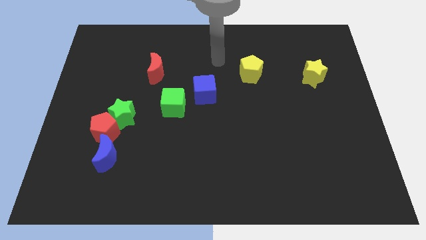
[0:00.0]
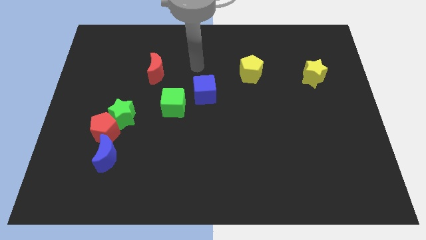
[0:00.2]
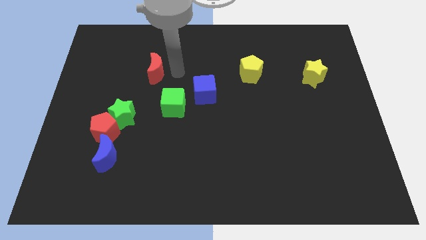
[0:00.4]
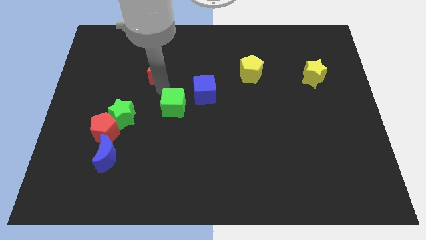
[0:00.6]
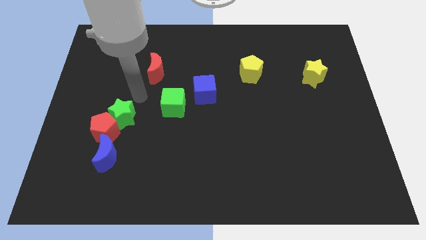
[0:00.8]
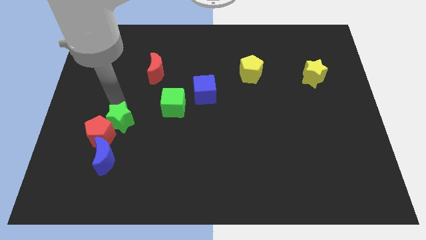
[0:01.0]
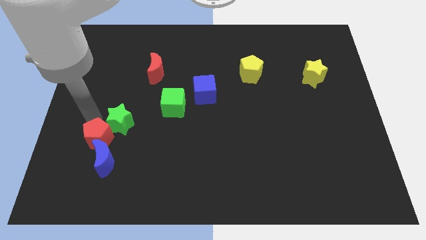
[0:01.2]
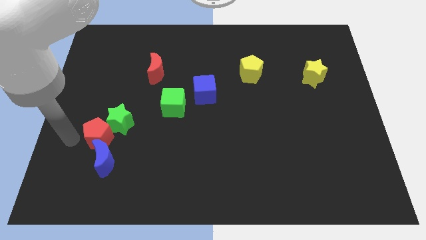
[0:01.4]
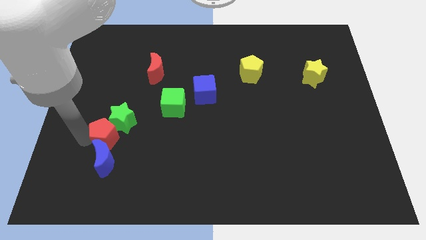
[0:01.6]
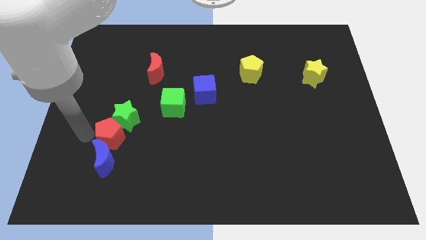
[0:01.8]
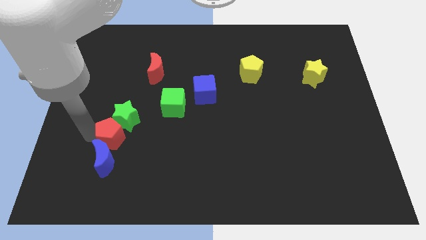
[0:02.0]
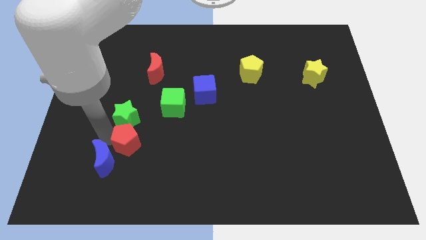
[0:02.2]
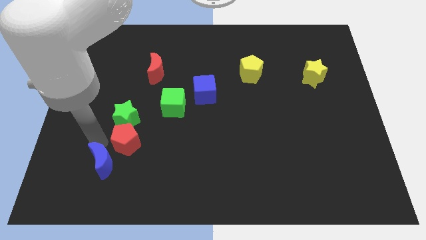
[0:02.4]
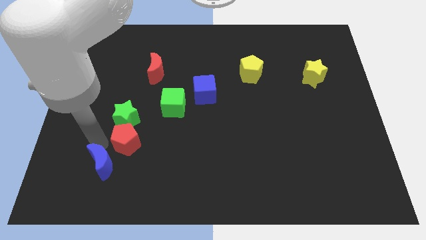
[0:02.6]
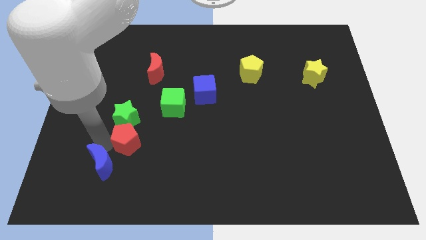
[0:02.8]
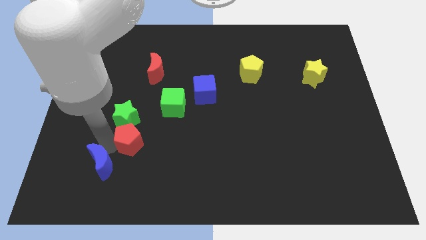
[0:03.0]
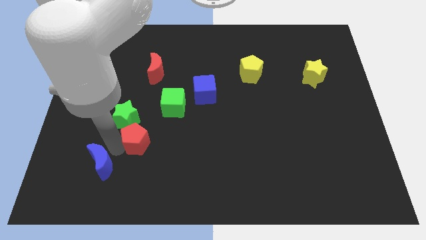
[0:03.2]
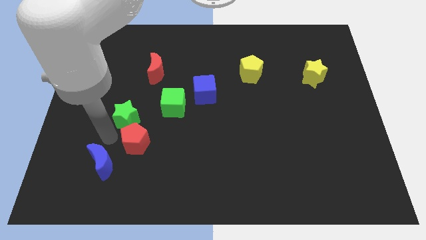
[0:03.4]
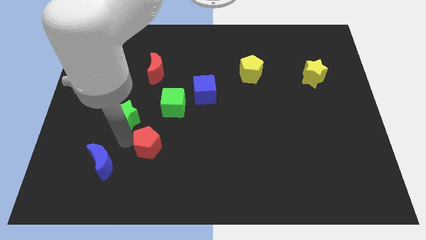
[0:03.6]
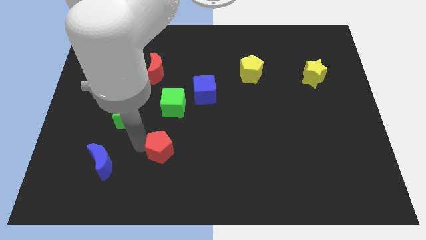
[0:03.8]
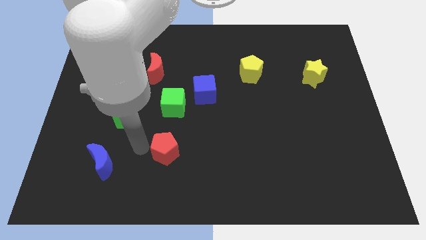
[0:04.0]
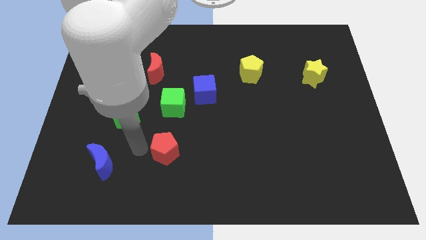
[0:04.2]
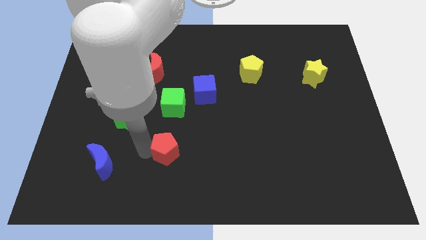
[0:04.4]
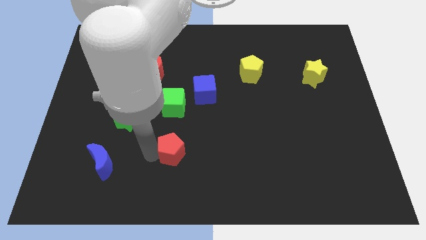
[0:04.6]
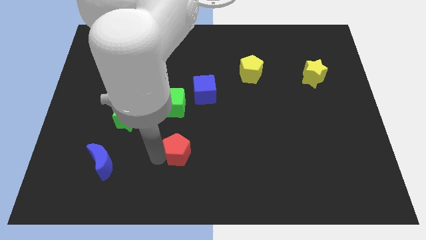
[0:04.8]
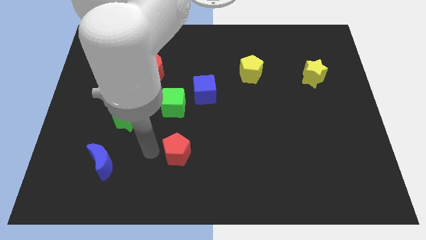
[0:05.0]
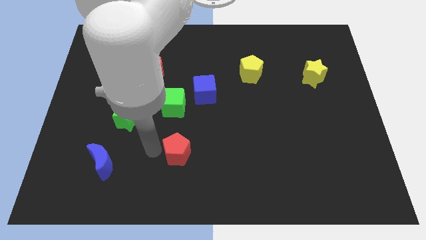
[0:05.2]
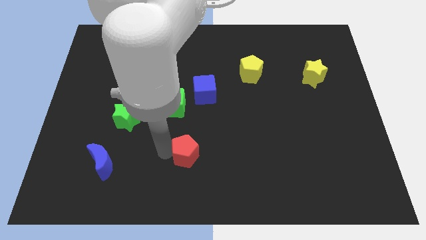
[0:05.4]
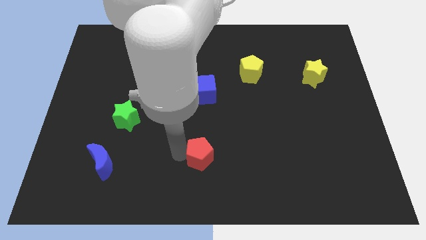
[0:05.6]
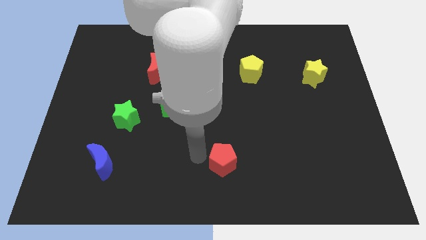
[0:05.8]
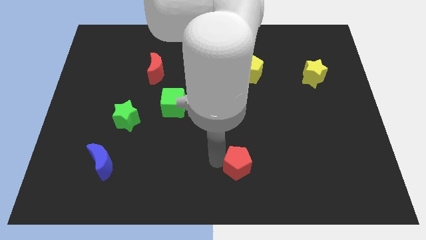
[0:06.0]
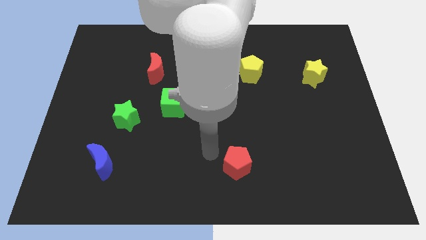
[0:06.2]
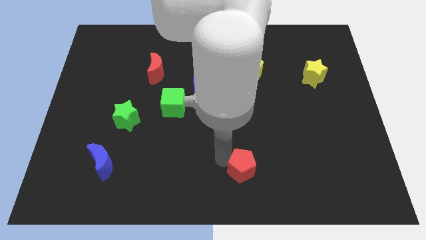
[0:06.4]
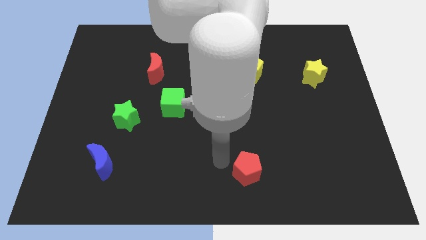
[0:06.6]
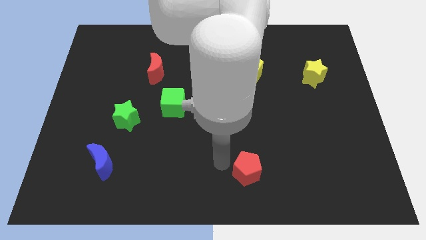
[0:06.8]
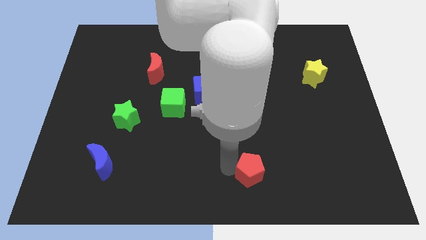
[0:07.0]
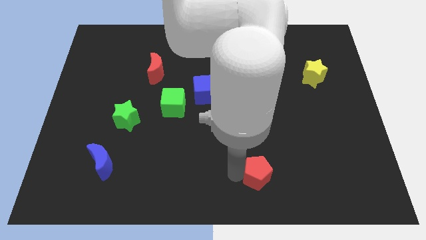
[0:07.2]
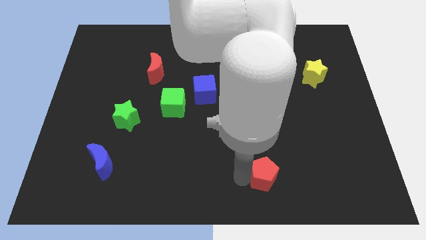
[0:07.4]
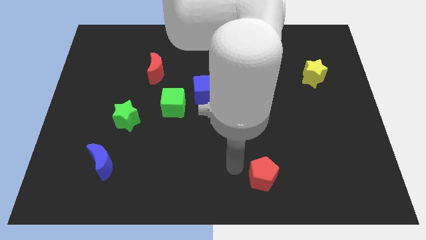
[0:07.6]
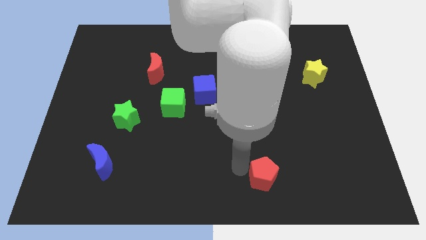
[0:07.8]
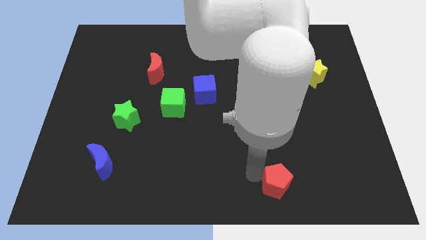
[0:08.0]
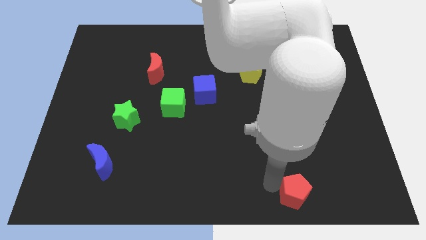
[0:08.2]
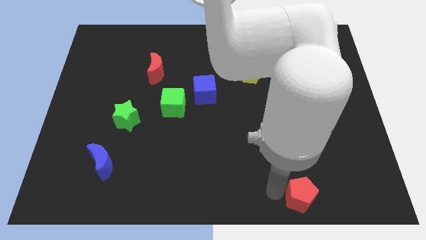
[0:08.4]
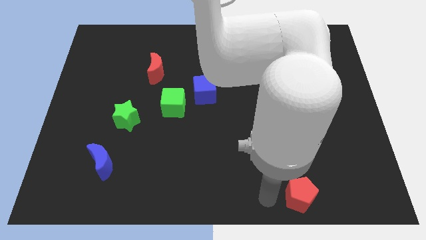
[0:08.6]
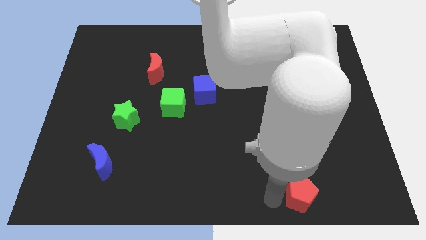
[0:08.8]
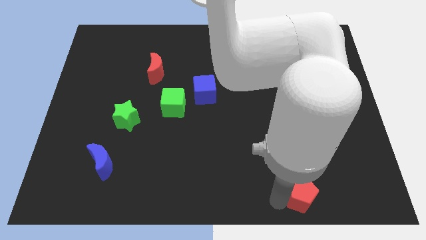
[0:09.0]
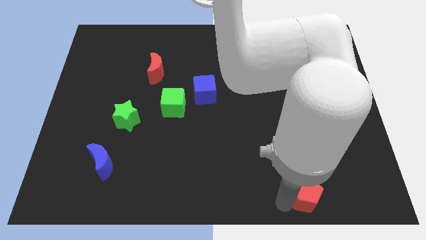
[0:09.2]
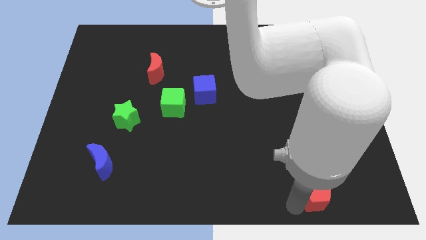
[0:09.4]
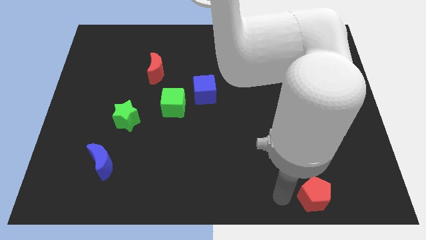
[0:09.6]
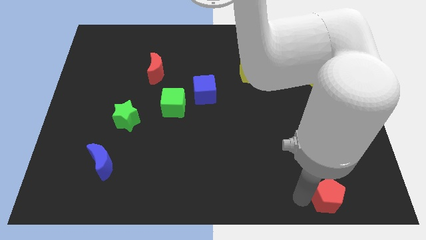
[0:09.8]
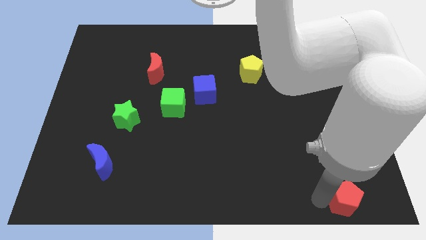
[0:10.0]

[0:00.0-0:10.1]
move the red pentagon to the lower right corner

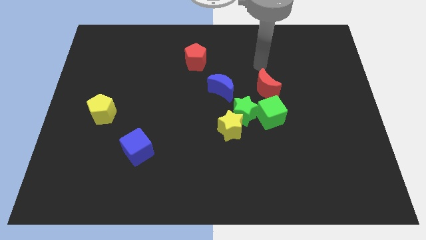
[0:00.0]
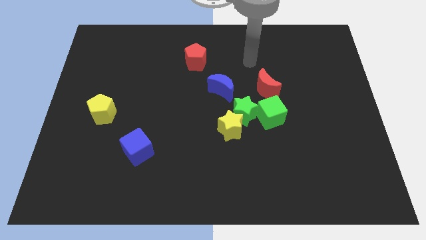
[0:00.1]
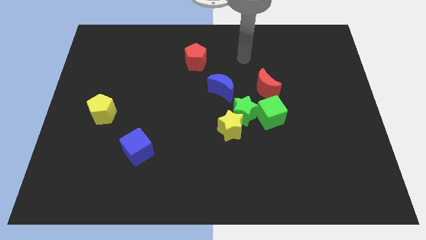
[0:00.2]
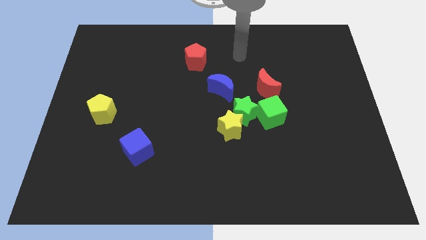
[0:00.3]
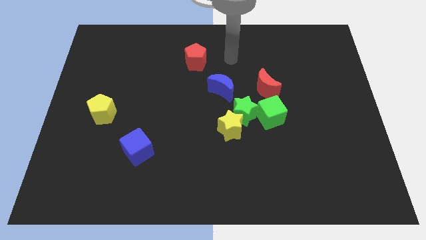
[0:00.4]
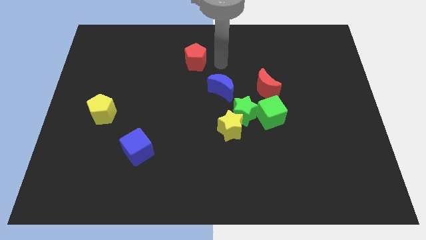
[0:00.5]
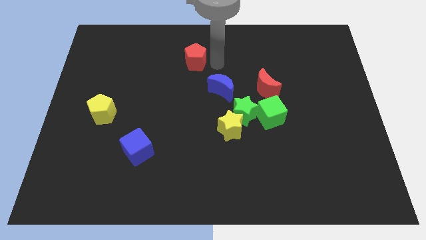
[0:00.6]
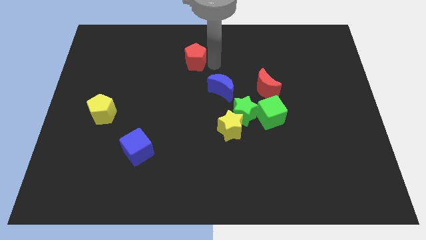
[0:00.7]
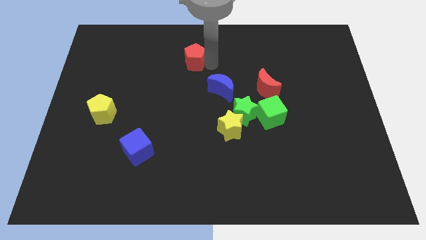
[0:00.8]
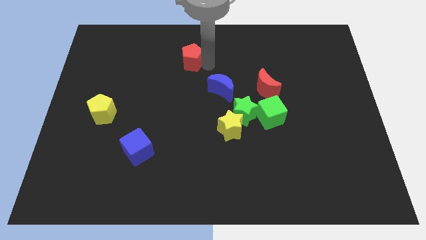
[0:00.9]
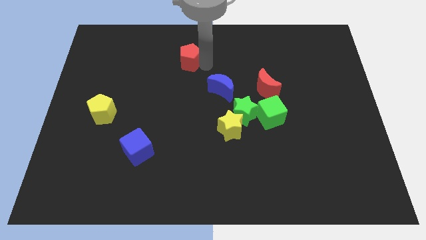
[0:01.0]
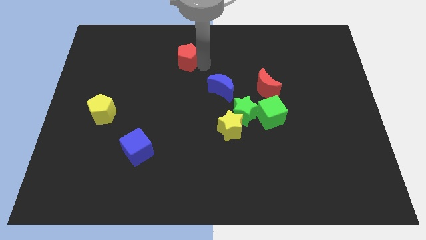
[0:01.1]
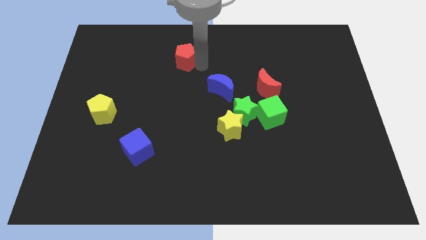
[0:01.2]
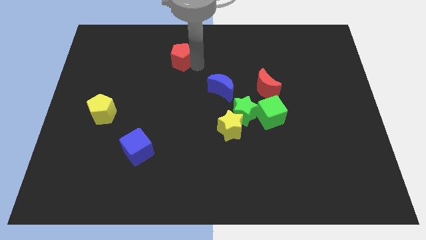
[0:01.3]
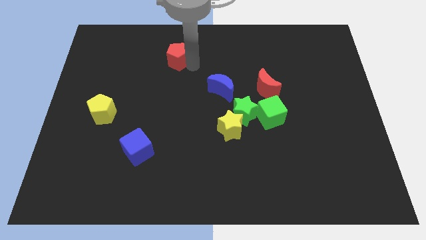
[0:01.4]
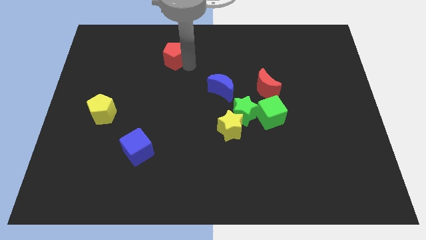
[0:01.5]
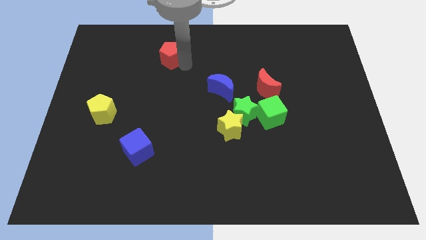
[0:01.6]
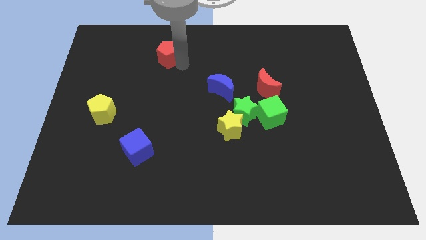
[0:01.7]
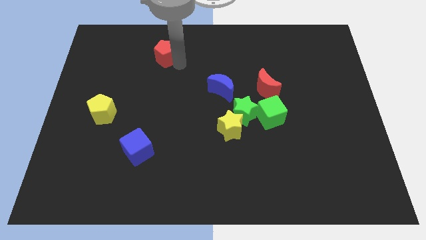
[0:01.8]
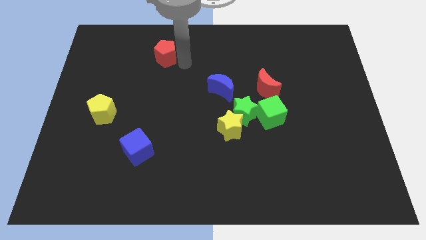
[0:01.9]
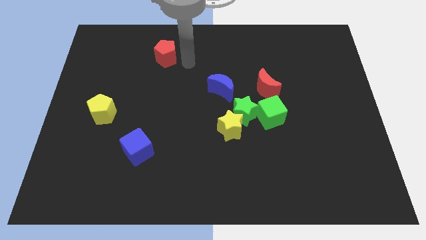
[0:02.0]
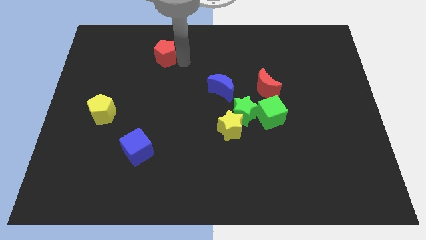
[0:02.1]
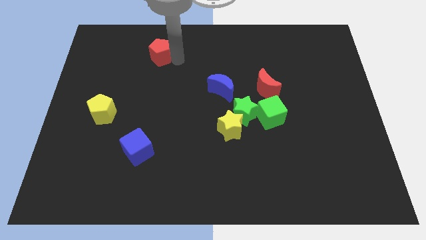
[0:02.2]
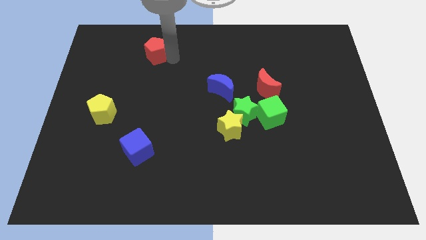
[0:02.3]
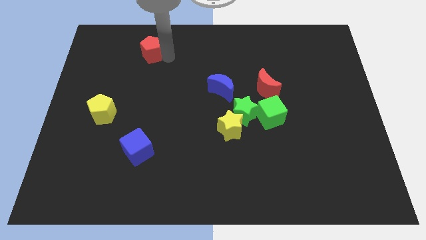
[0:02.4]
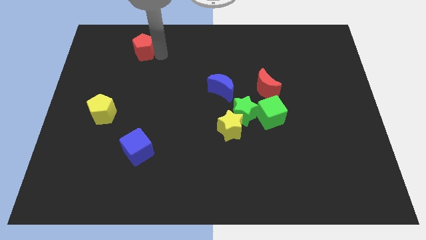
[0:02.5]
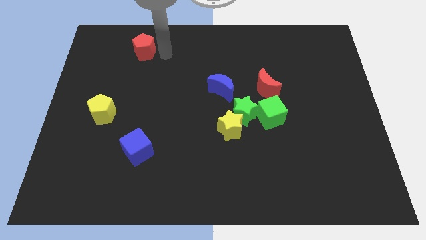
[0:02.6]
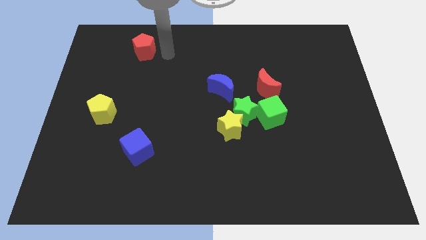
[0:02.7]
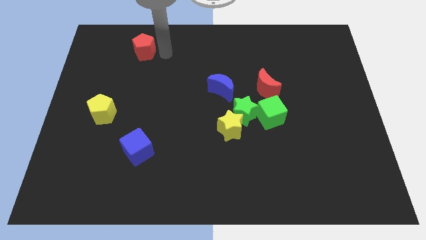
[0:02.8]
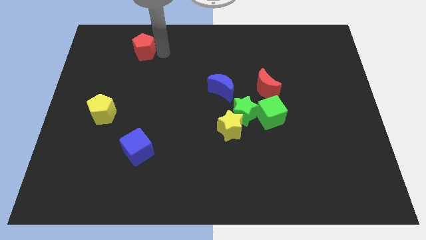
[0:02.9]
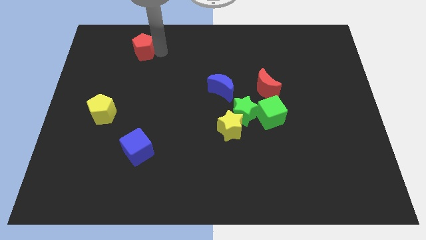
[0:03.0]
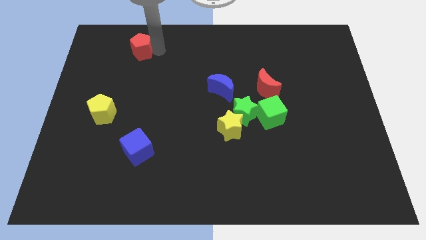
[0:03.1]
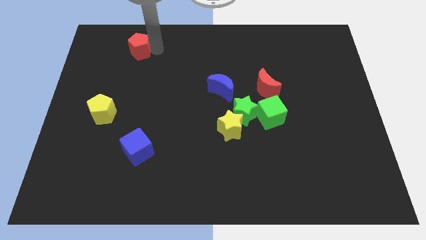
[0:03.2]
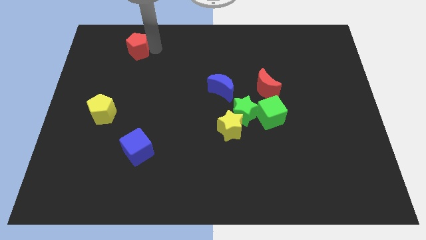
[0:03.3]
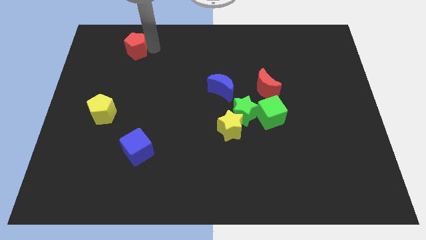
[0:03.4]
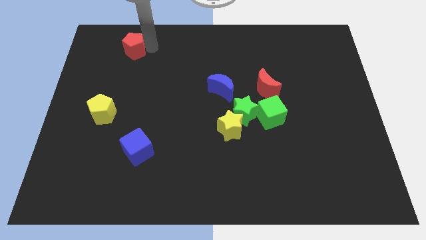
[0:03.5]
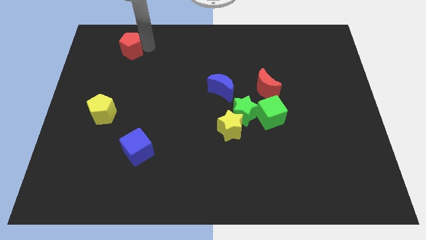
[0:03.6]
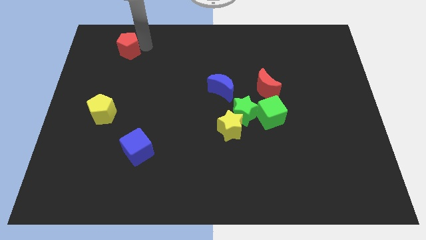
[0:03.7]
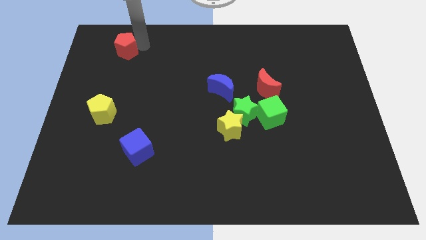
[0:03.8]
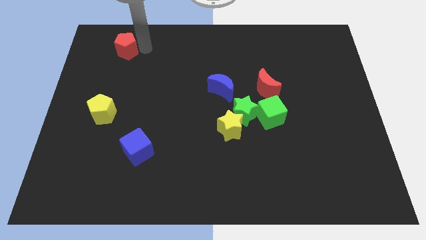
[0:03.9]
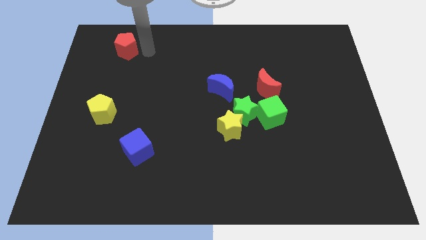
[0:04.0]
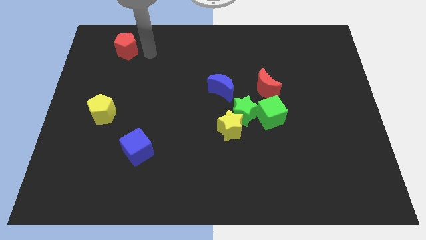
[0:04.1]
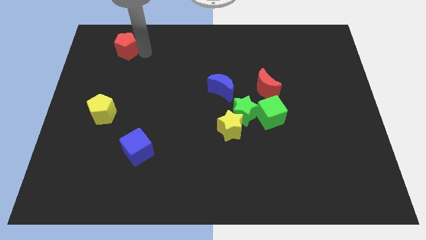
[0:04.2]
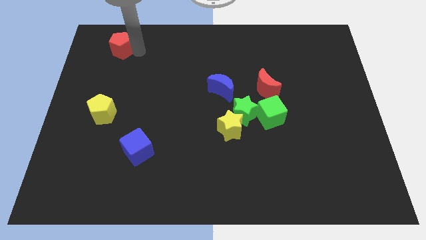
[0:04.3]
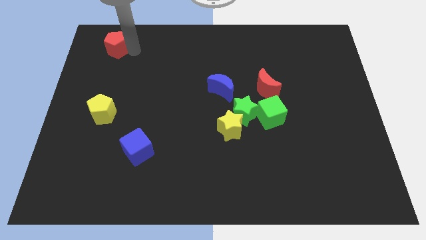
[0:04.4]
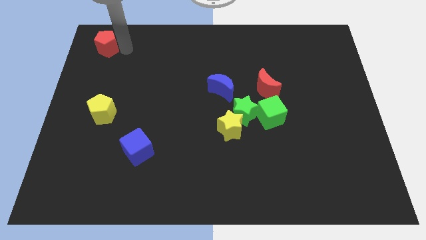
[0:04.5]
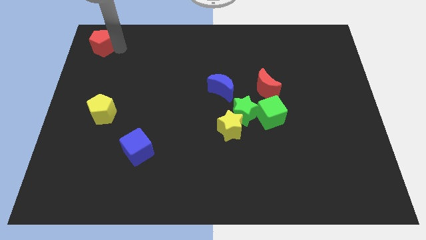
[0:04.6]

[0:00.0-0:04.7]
push the red pentagon to the top left corner
